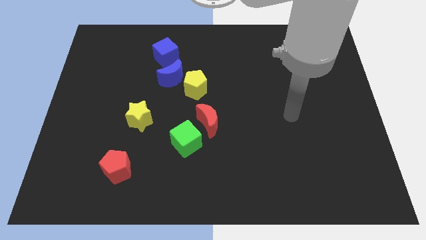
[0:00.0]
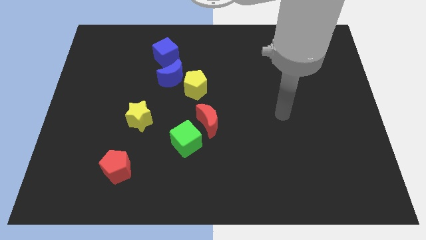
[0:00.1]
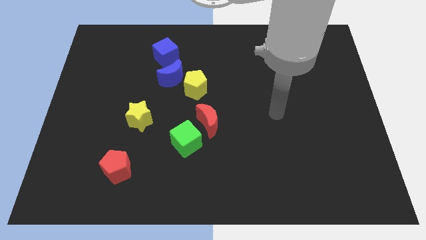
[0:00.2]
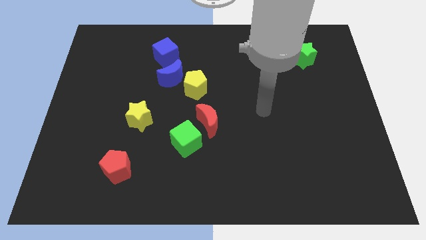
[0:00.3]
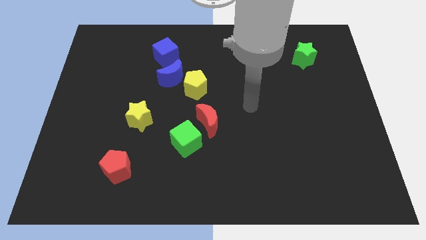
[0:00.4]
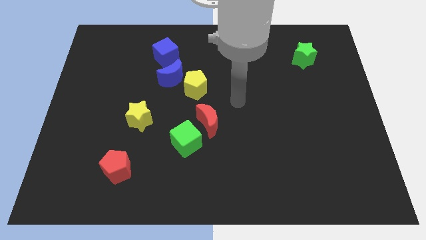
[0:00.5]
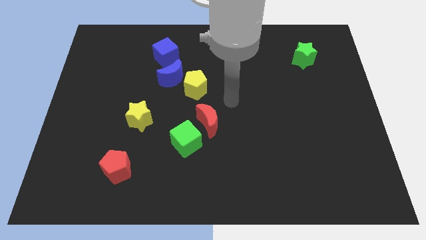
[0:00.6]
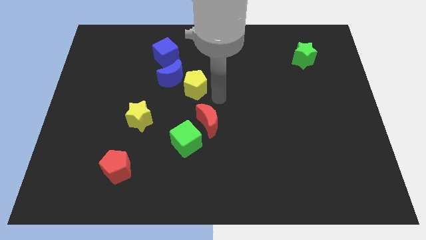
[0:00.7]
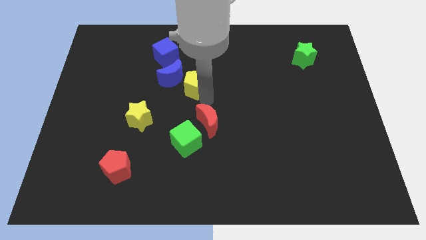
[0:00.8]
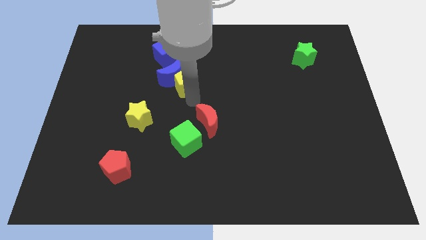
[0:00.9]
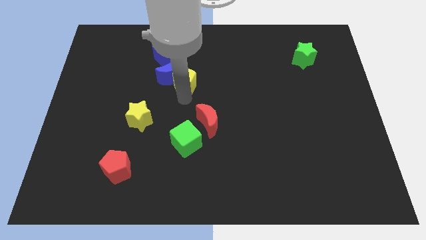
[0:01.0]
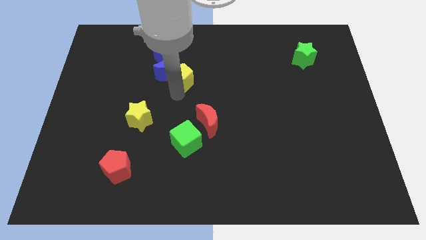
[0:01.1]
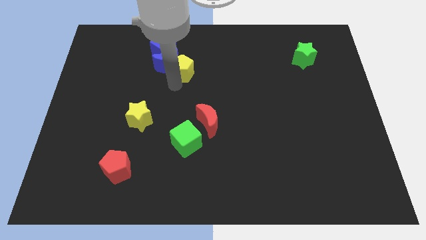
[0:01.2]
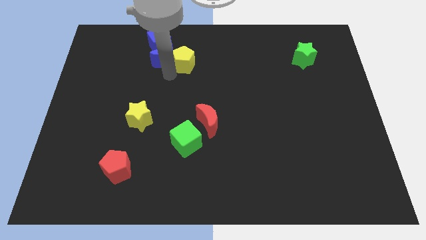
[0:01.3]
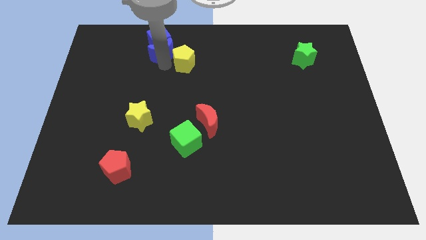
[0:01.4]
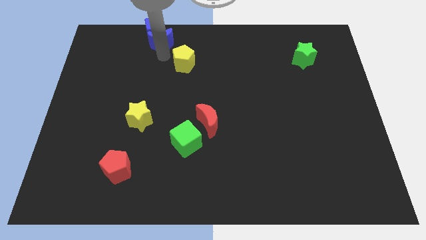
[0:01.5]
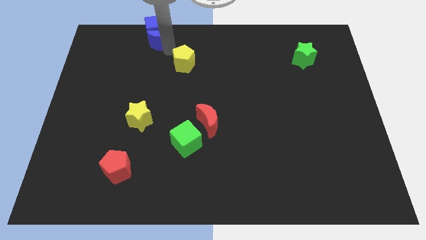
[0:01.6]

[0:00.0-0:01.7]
pull the yellow pentagon apart from the blue moon

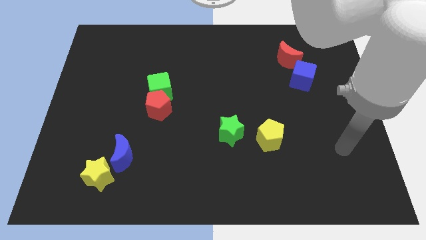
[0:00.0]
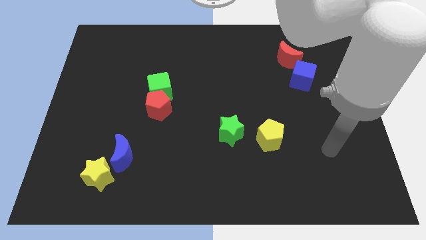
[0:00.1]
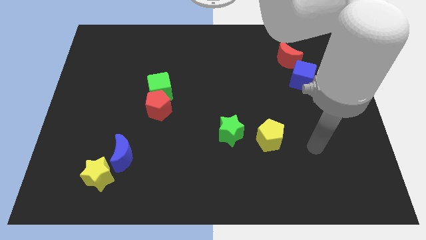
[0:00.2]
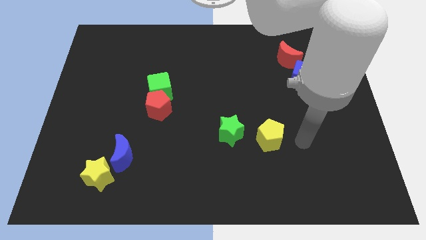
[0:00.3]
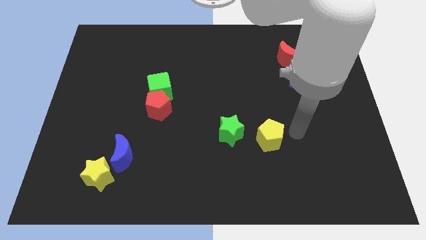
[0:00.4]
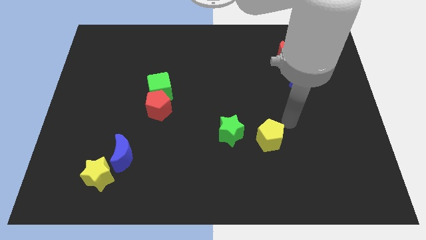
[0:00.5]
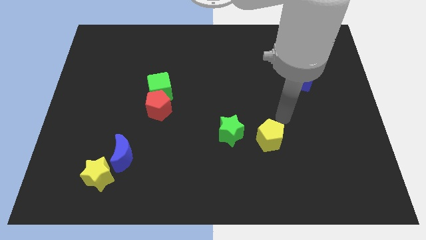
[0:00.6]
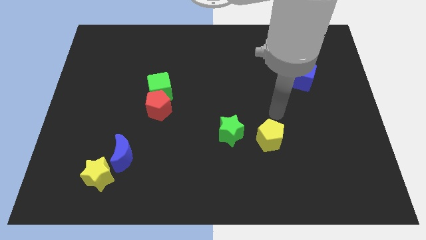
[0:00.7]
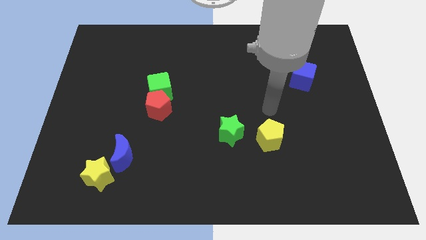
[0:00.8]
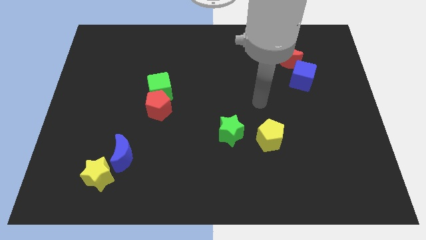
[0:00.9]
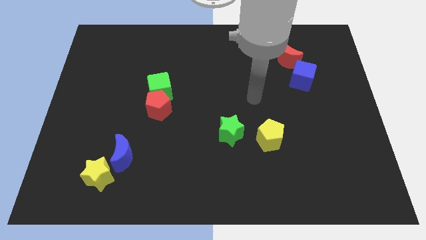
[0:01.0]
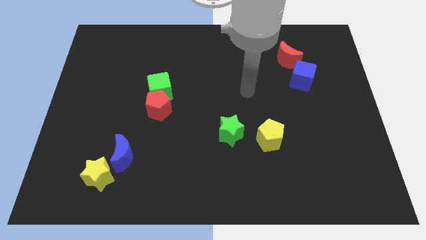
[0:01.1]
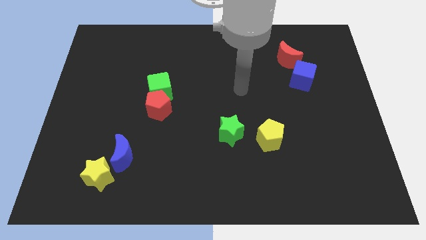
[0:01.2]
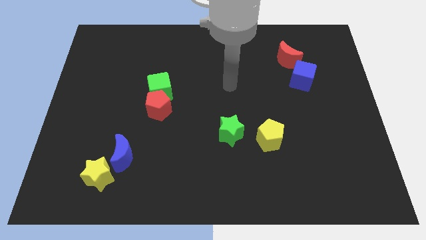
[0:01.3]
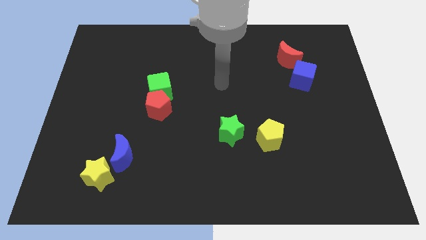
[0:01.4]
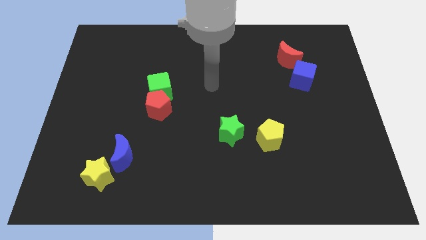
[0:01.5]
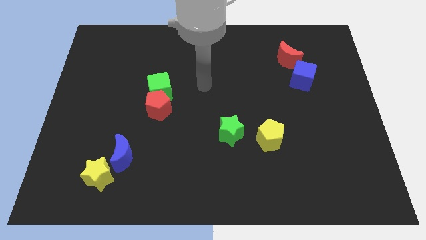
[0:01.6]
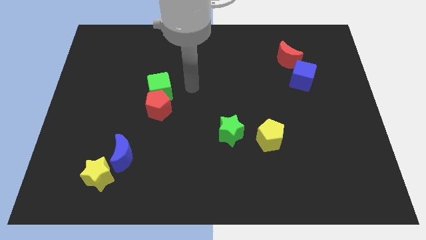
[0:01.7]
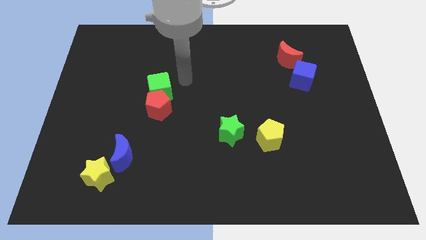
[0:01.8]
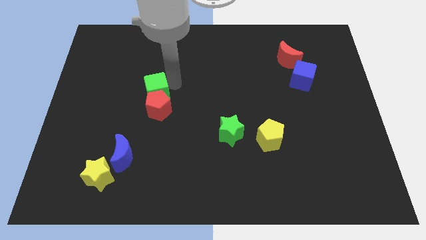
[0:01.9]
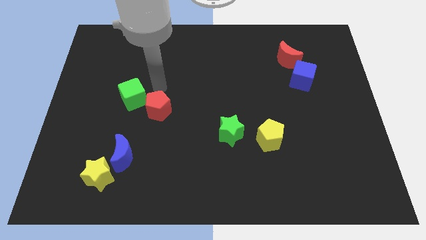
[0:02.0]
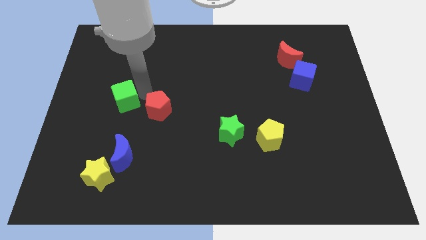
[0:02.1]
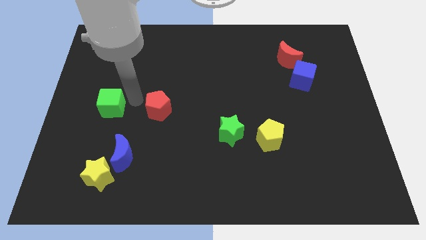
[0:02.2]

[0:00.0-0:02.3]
separate the red pentagon from the green cube

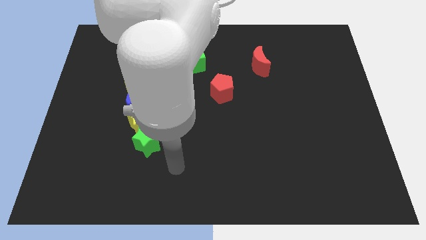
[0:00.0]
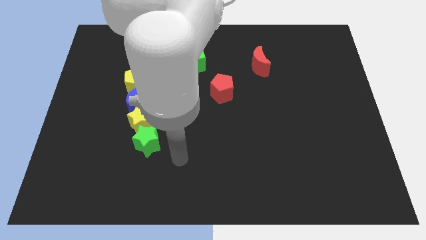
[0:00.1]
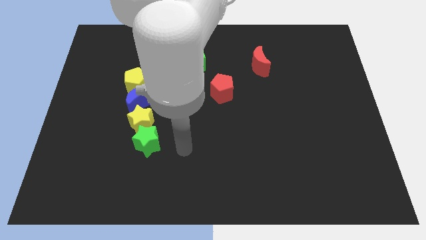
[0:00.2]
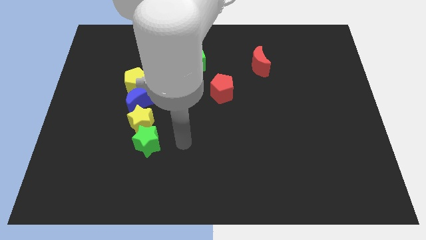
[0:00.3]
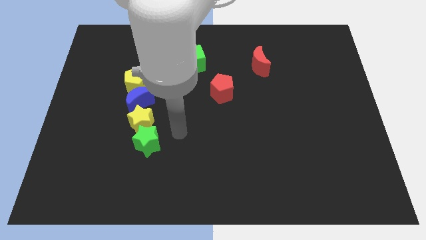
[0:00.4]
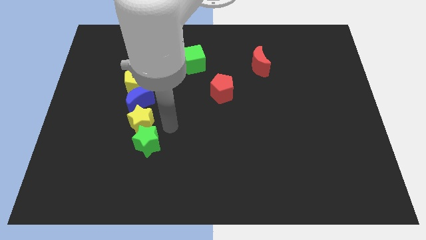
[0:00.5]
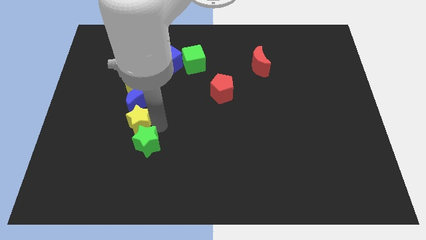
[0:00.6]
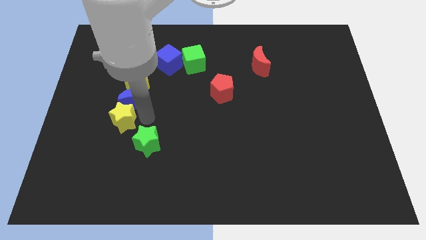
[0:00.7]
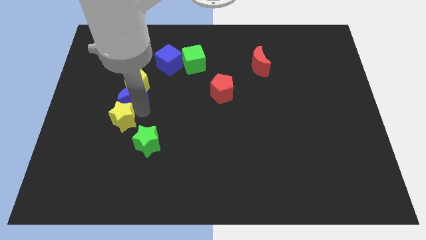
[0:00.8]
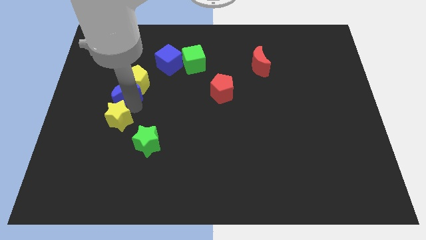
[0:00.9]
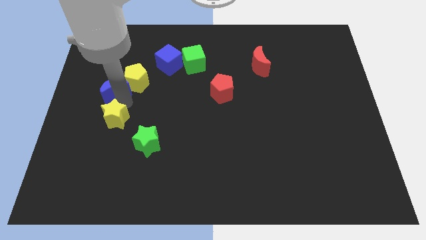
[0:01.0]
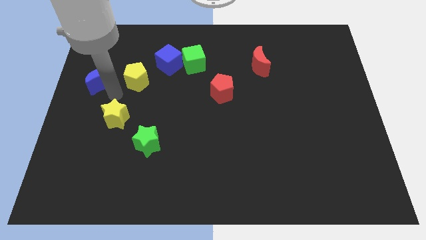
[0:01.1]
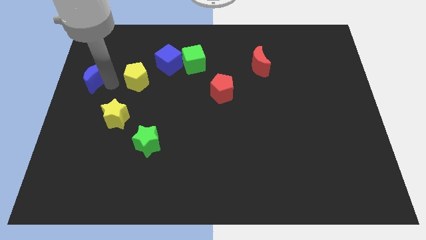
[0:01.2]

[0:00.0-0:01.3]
separate the yellow pentagon from the blue moon

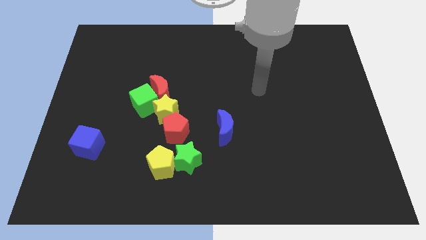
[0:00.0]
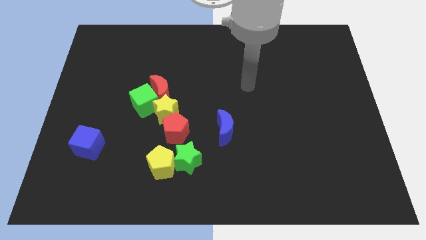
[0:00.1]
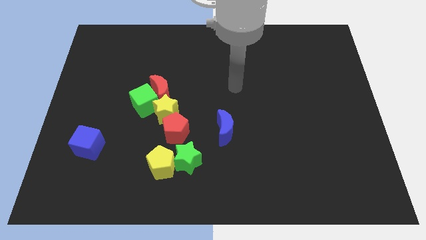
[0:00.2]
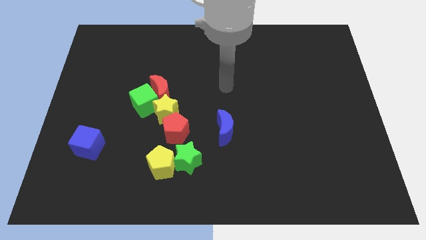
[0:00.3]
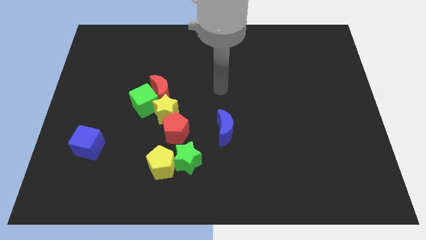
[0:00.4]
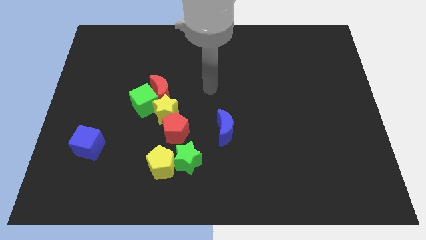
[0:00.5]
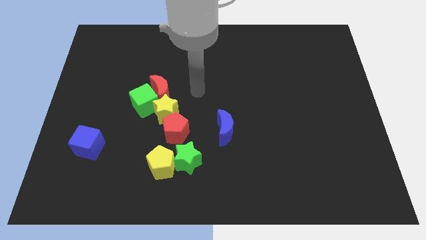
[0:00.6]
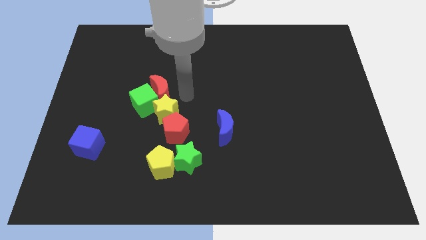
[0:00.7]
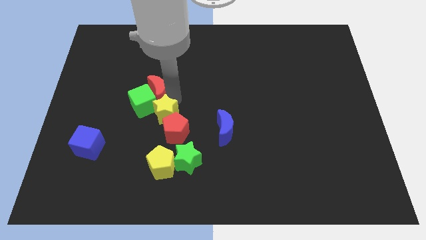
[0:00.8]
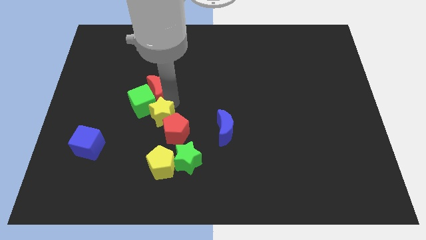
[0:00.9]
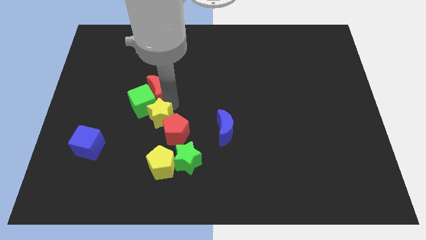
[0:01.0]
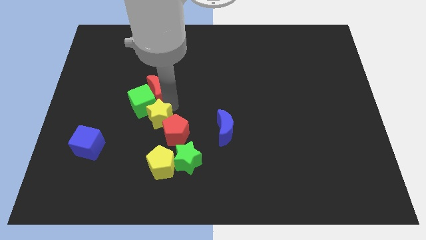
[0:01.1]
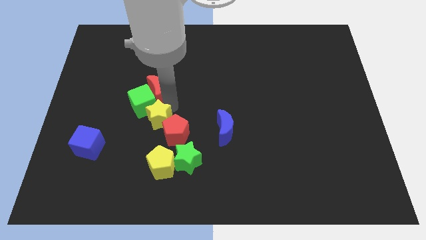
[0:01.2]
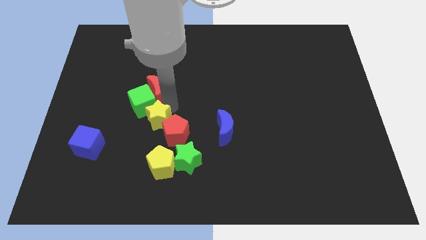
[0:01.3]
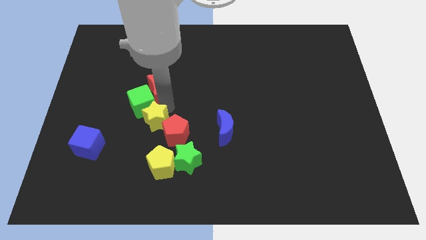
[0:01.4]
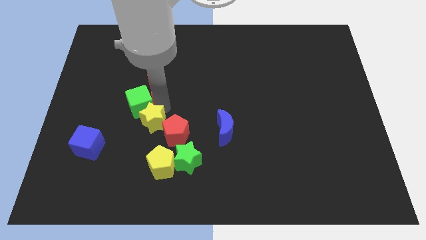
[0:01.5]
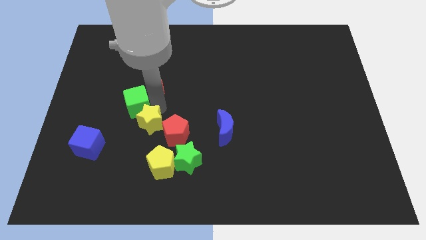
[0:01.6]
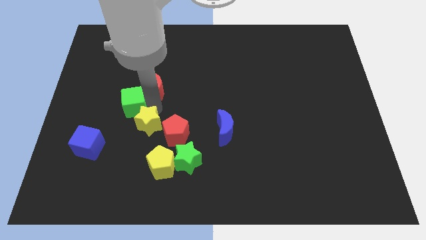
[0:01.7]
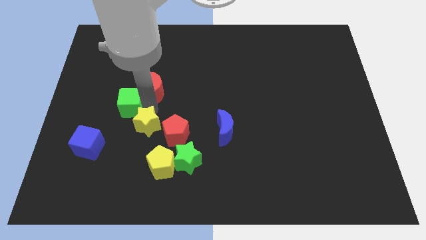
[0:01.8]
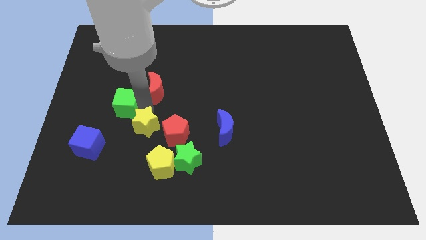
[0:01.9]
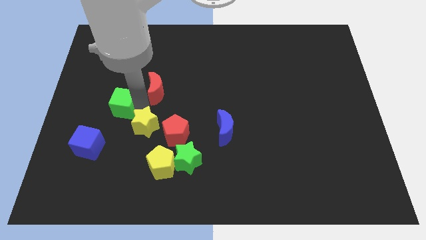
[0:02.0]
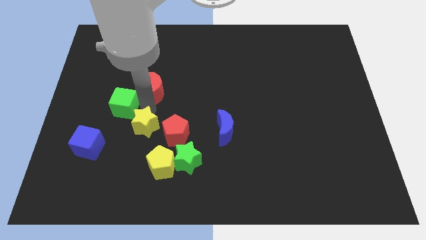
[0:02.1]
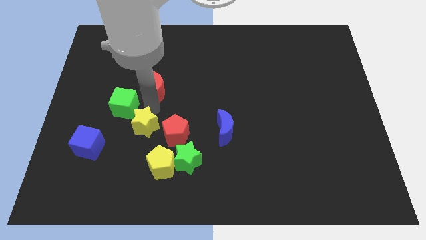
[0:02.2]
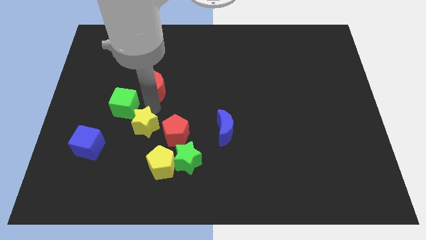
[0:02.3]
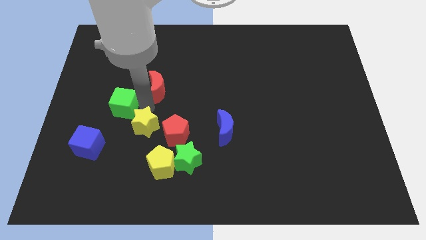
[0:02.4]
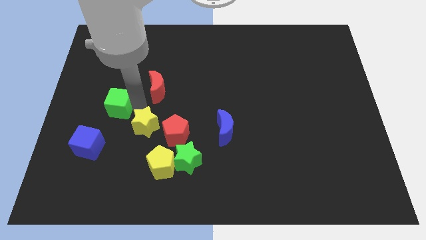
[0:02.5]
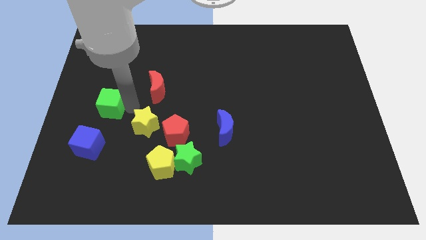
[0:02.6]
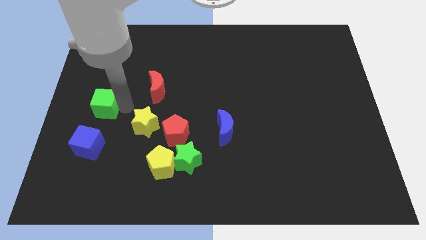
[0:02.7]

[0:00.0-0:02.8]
separate the green cube from the red moon and yellow star

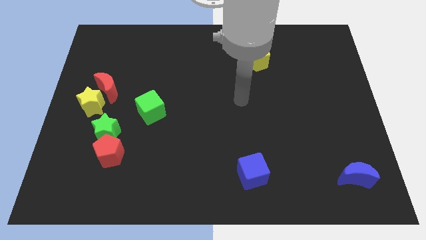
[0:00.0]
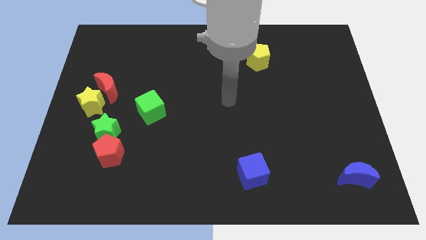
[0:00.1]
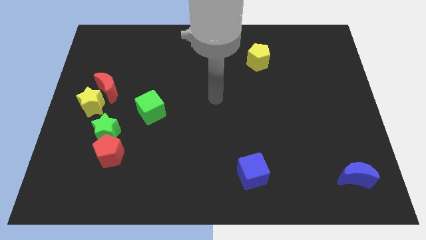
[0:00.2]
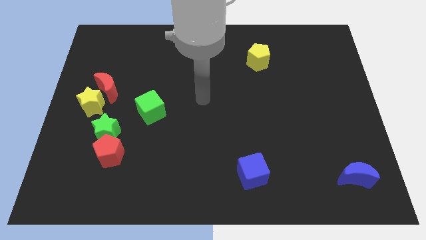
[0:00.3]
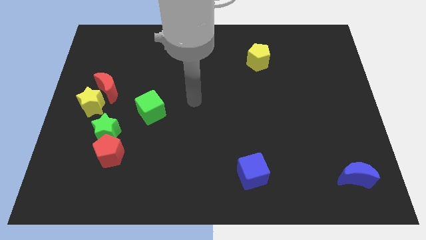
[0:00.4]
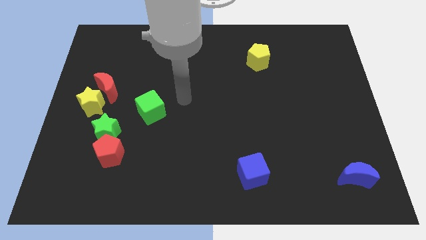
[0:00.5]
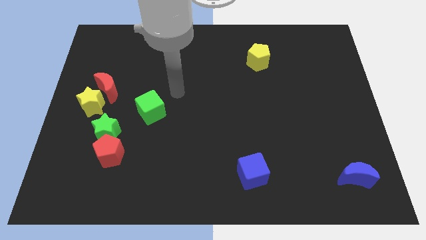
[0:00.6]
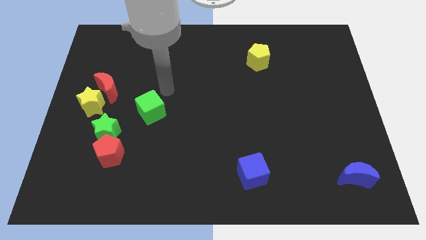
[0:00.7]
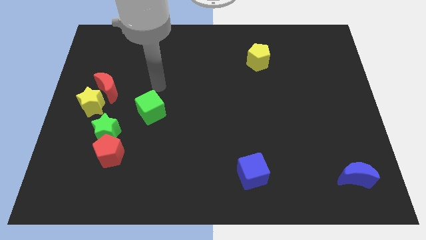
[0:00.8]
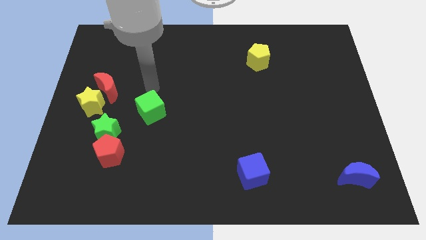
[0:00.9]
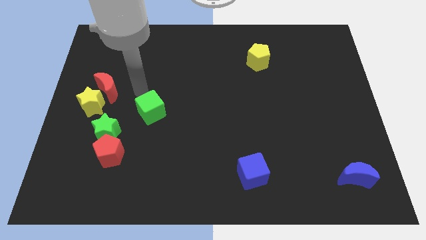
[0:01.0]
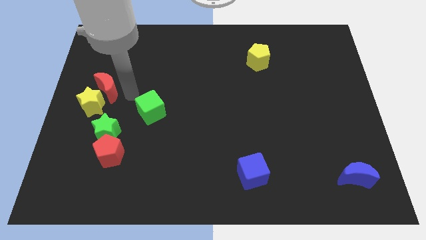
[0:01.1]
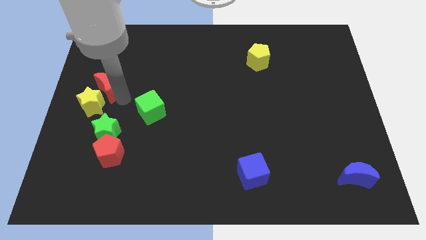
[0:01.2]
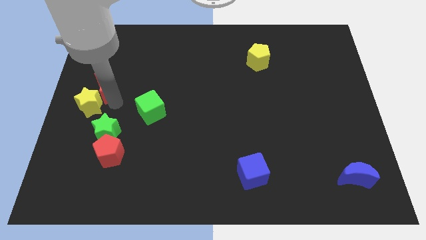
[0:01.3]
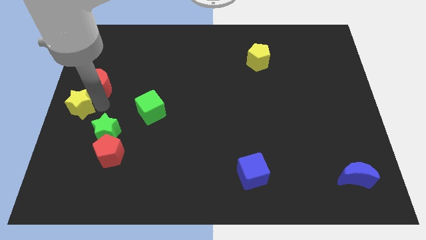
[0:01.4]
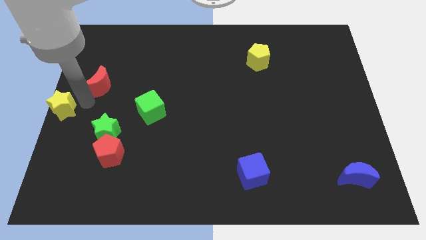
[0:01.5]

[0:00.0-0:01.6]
pull the red moon apart from the yellow star
